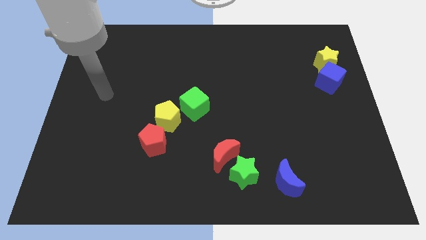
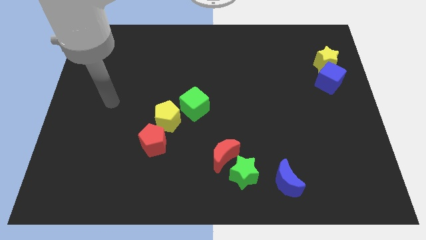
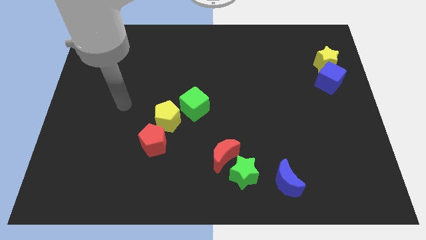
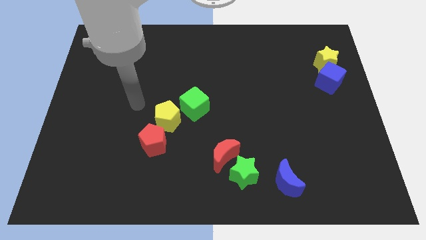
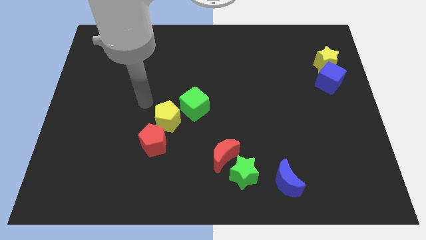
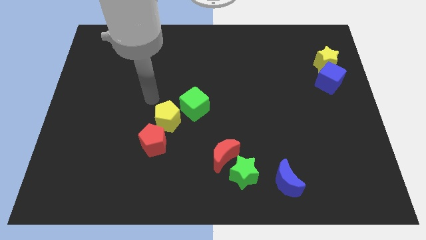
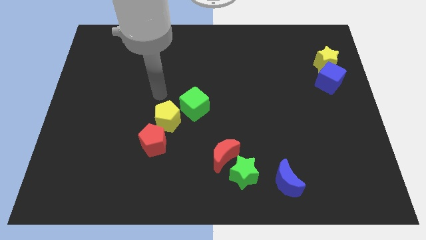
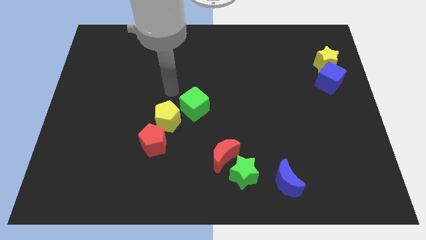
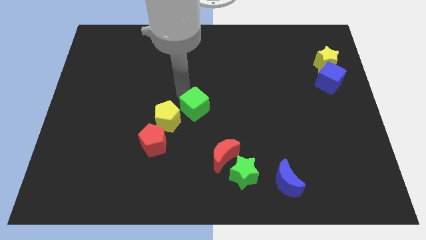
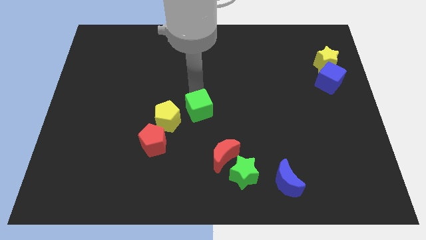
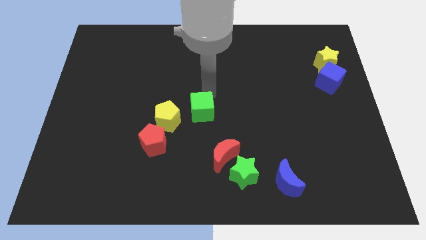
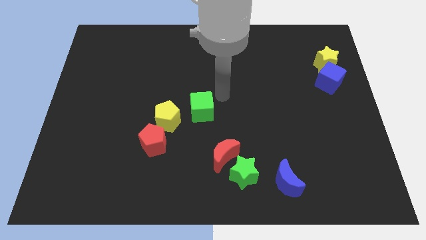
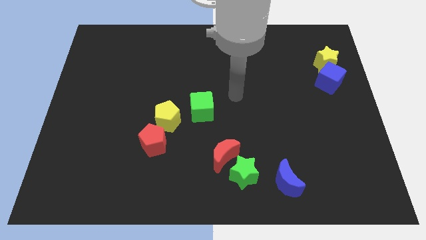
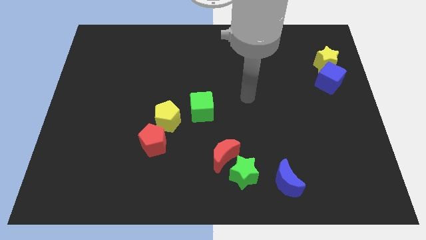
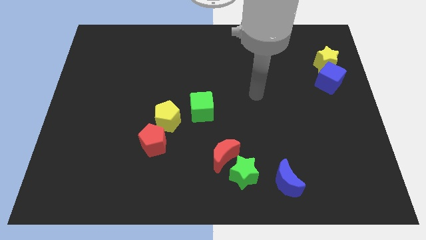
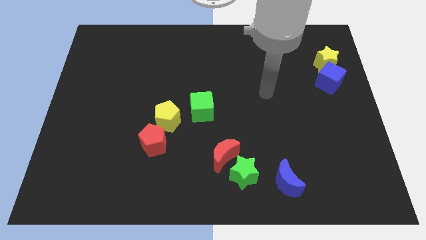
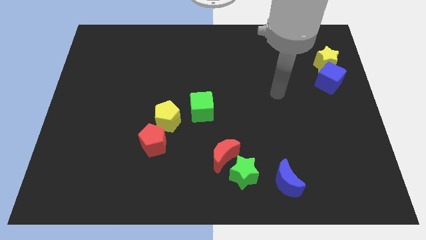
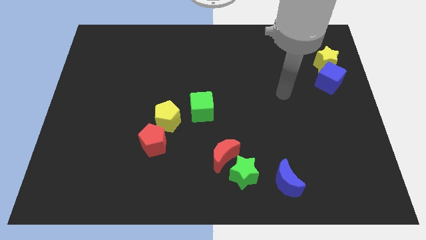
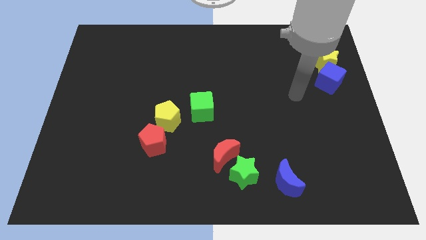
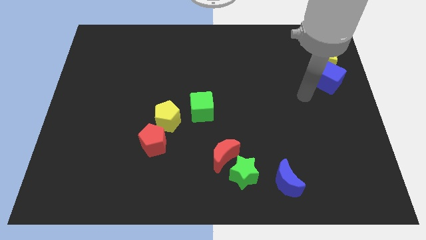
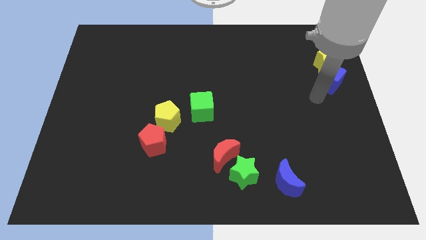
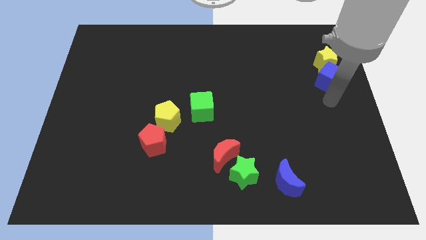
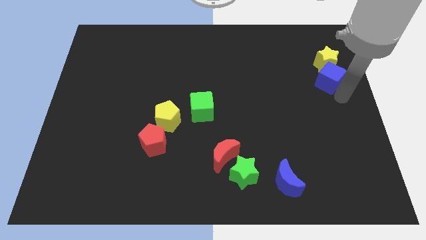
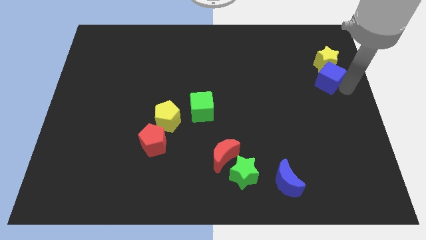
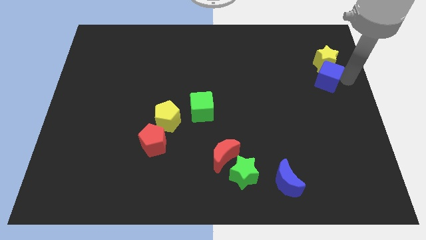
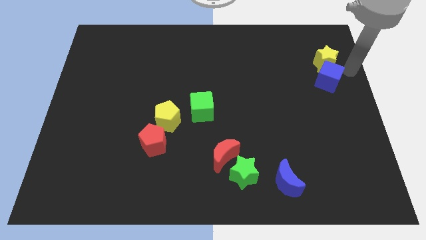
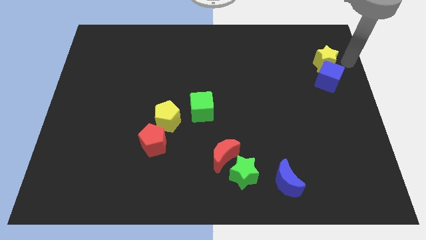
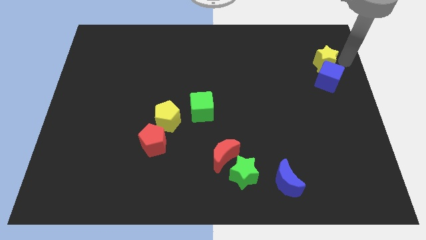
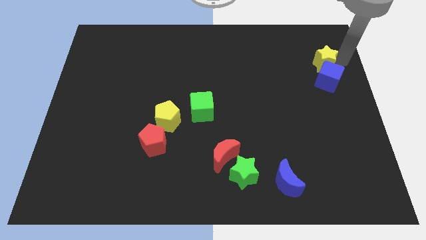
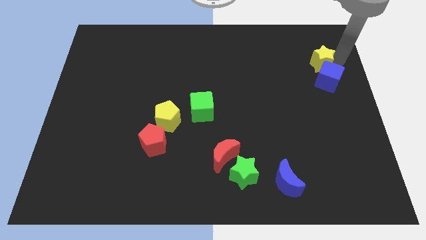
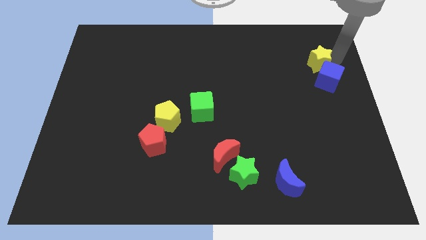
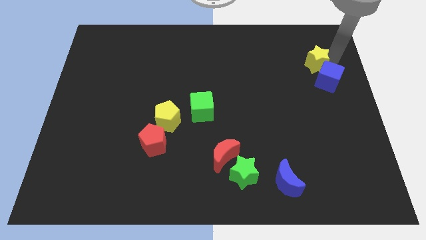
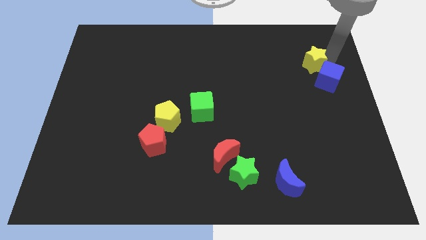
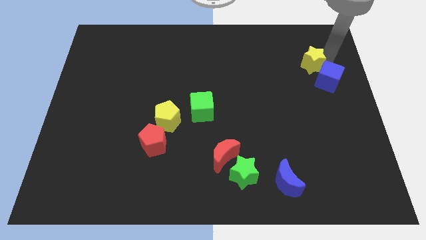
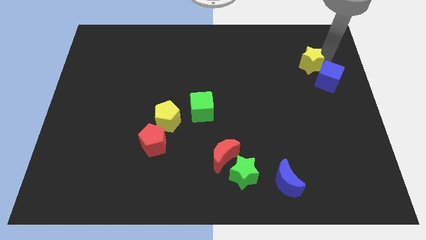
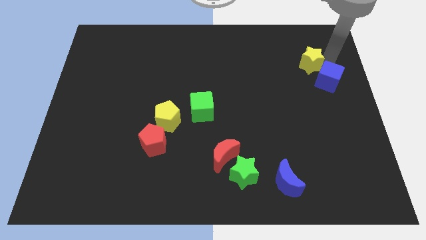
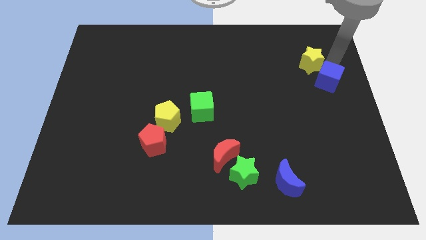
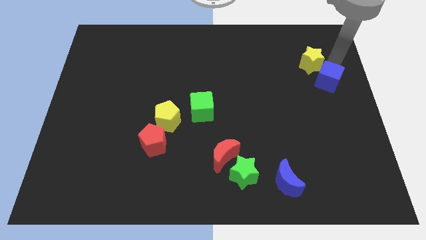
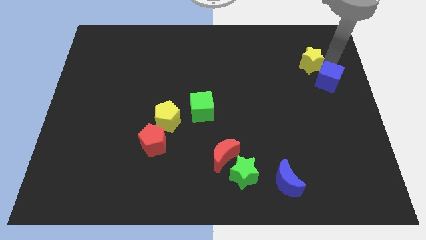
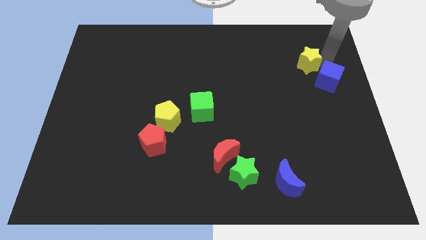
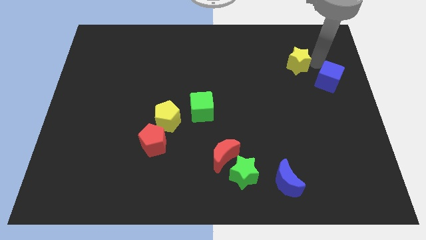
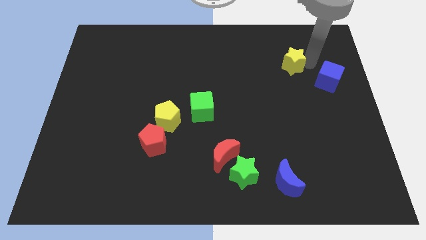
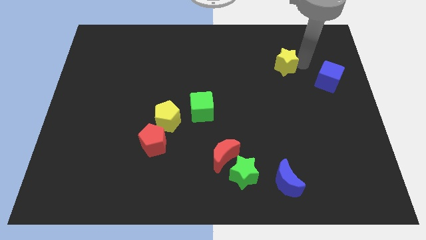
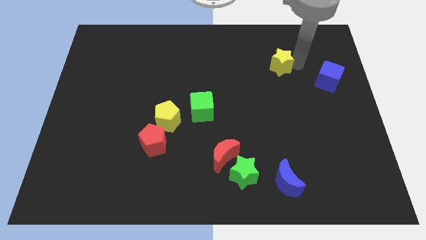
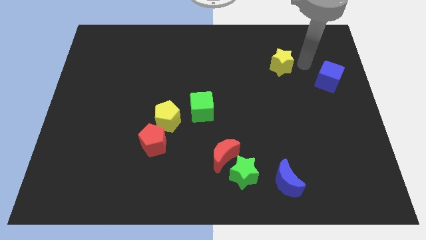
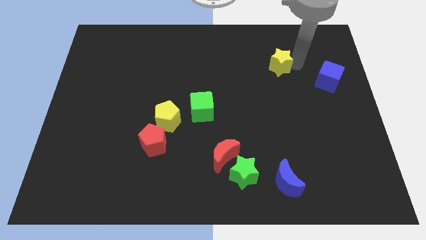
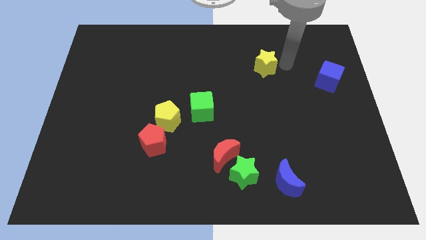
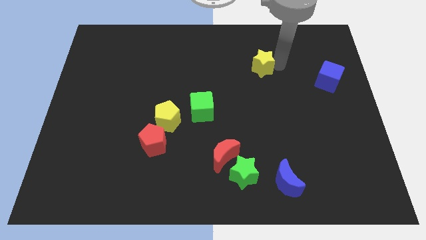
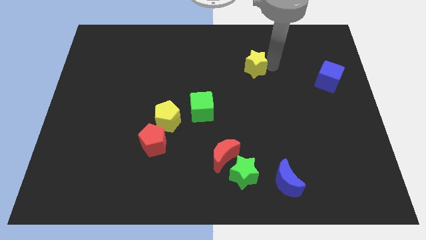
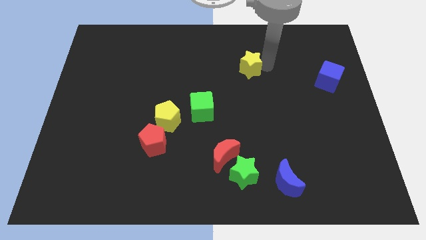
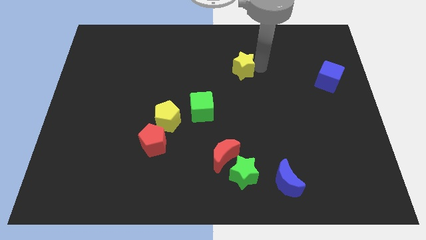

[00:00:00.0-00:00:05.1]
push the yellow star left

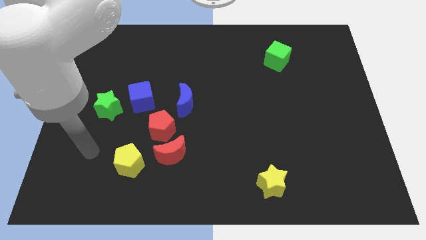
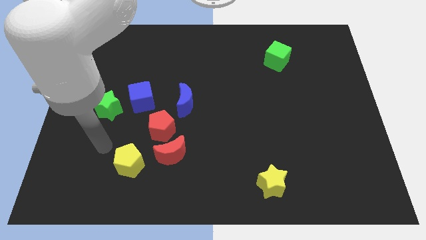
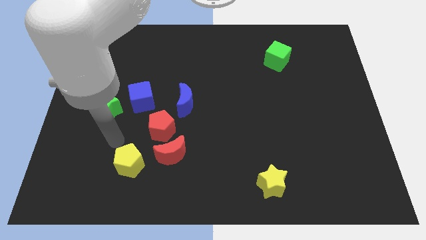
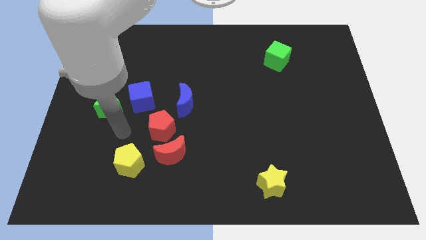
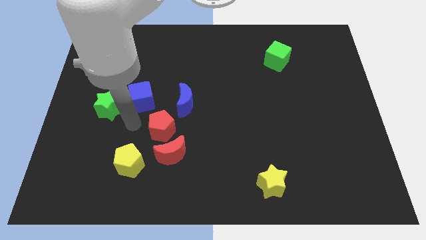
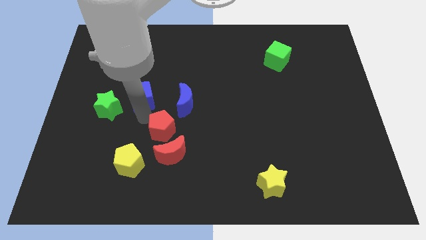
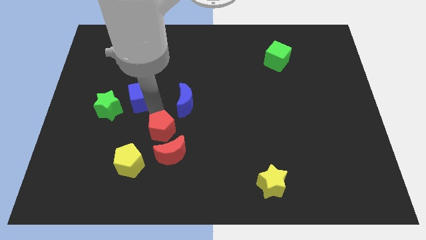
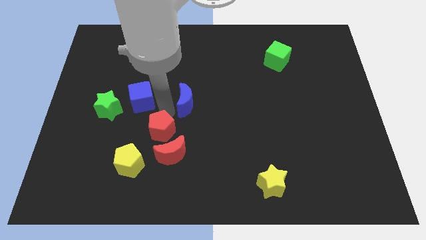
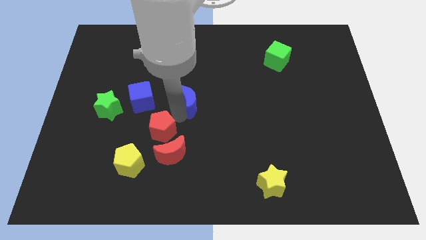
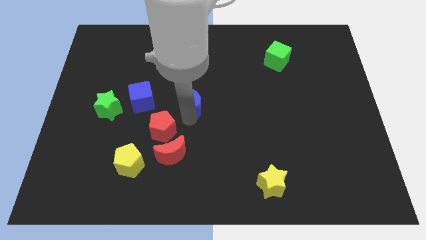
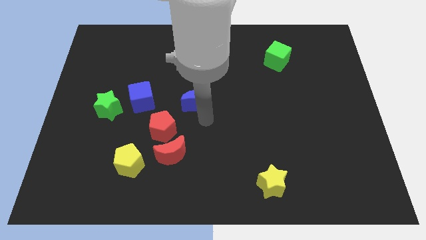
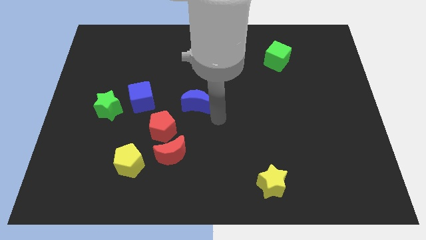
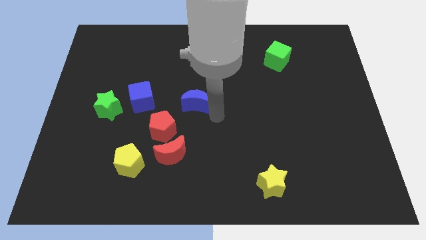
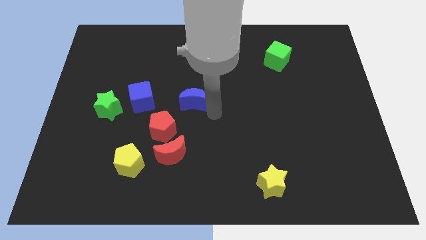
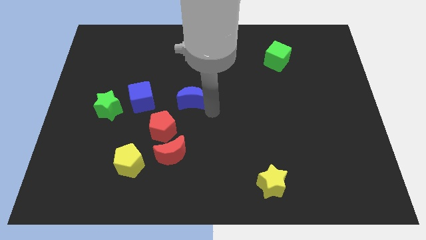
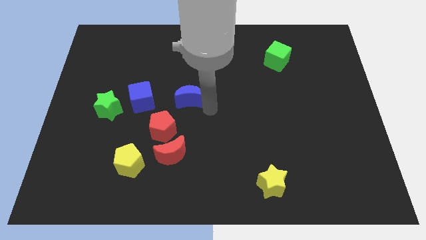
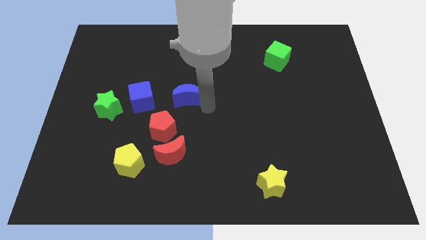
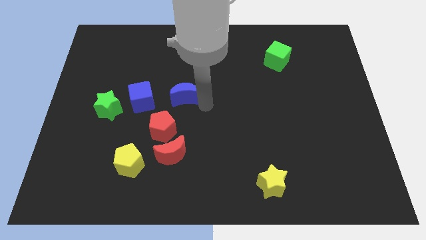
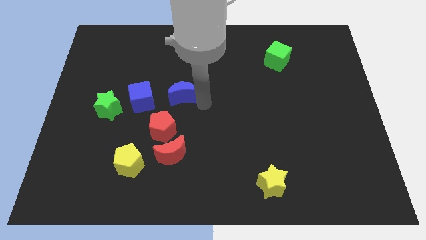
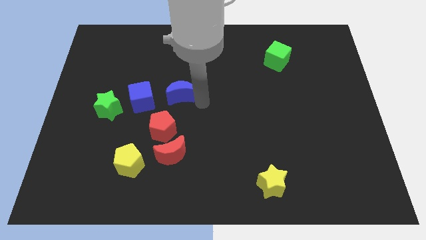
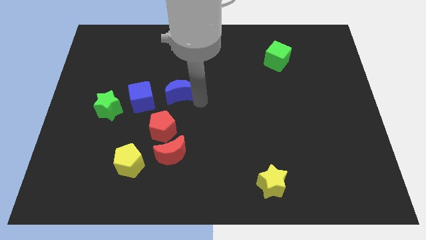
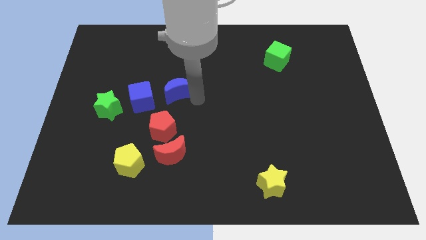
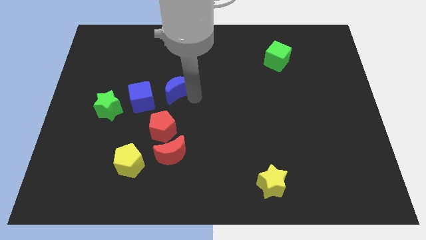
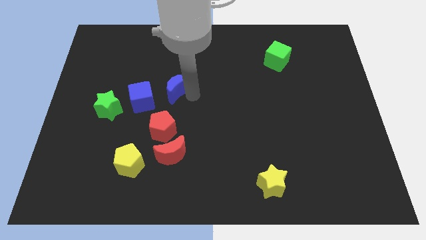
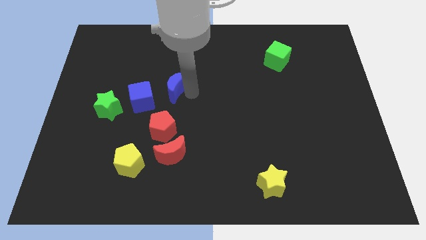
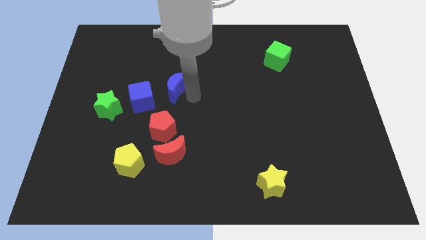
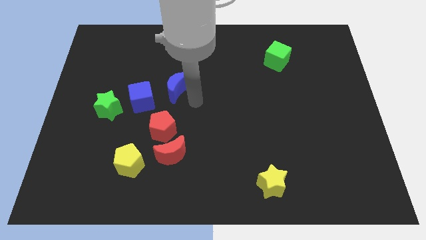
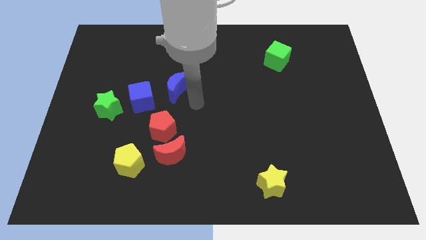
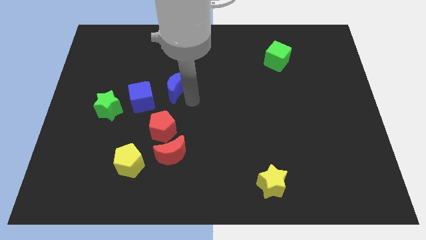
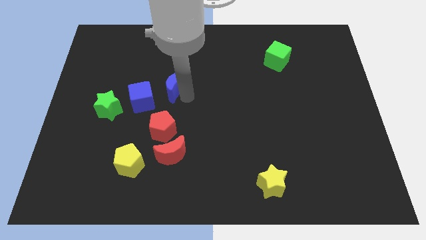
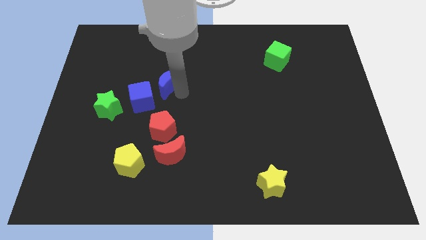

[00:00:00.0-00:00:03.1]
push the blue moon slightly up and then left
